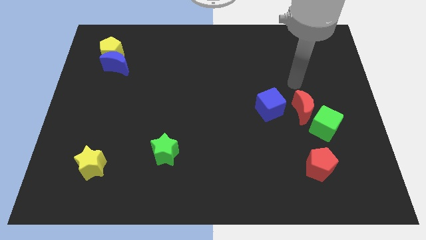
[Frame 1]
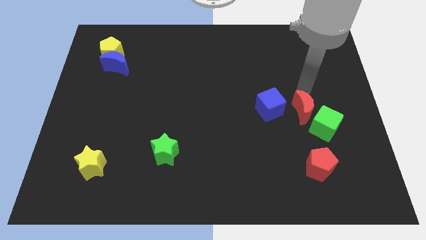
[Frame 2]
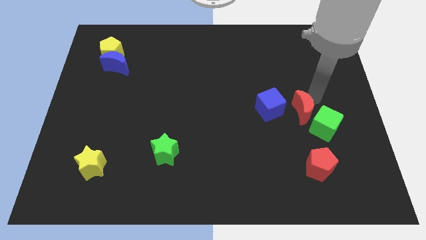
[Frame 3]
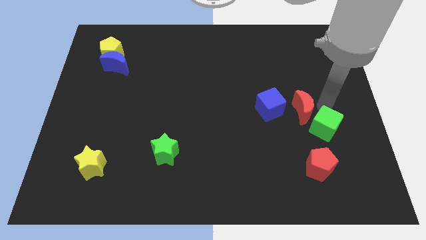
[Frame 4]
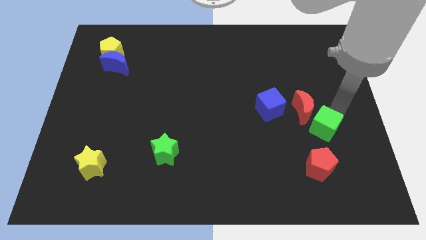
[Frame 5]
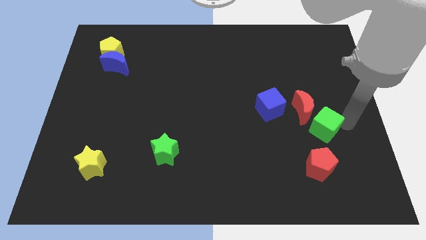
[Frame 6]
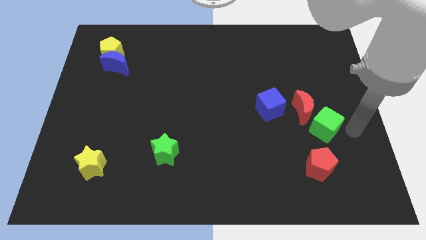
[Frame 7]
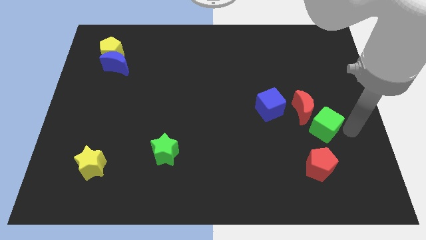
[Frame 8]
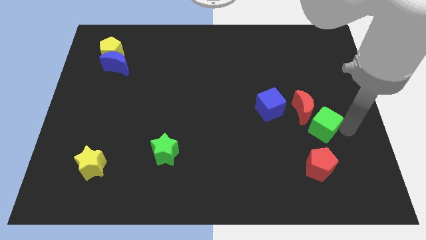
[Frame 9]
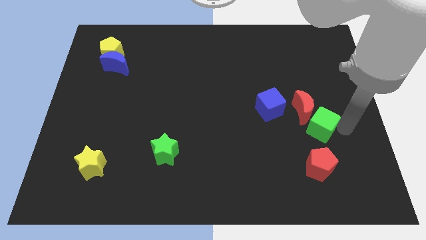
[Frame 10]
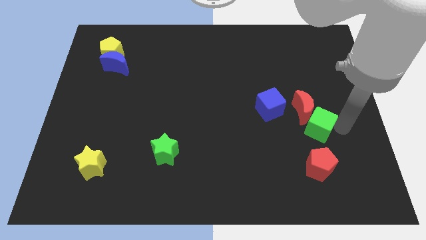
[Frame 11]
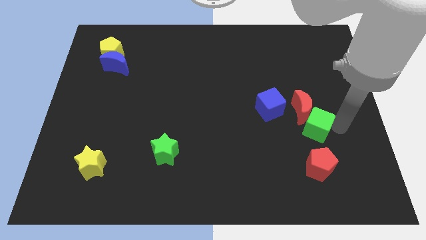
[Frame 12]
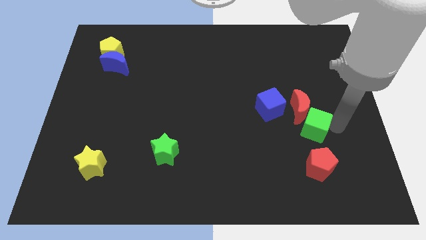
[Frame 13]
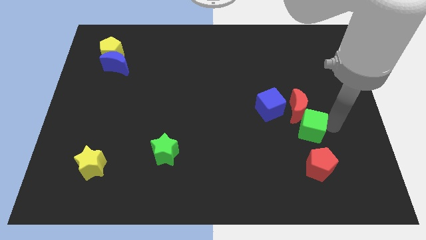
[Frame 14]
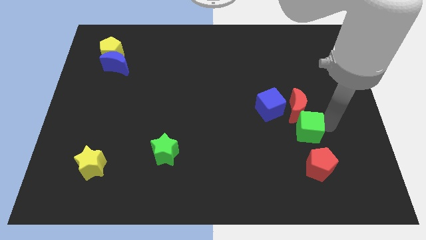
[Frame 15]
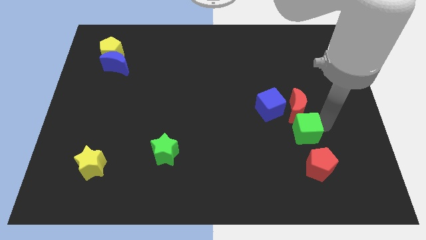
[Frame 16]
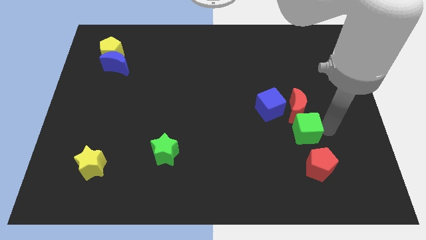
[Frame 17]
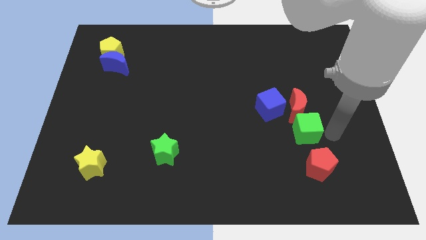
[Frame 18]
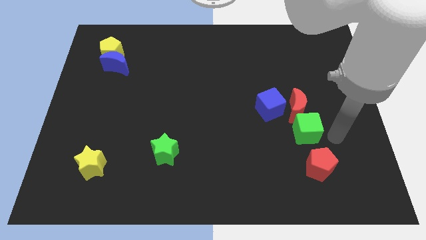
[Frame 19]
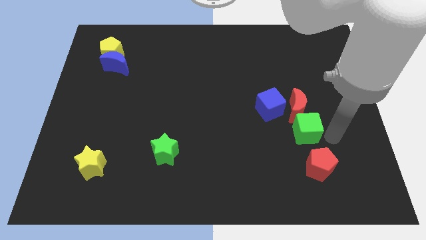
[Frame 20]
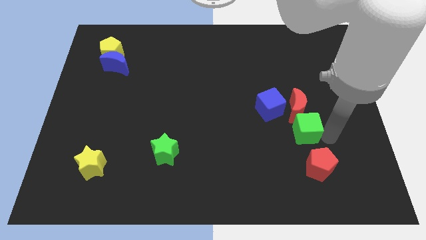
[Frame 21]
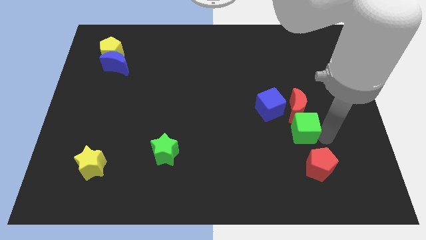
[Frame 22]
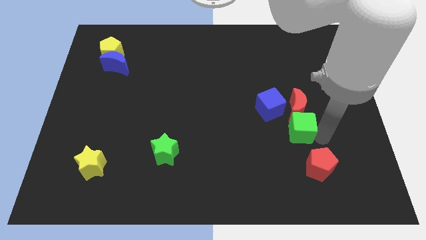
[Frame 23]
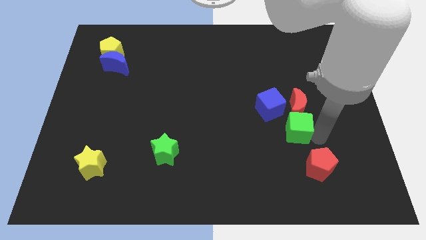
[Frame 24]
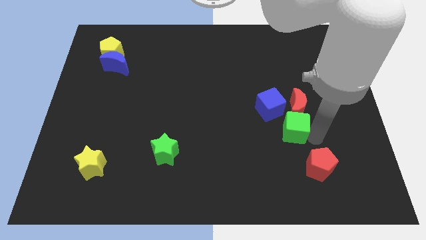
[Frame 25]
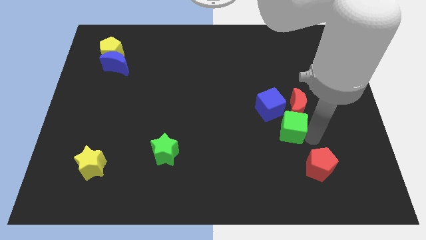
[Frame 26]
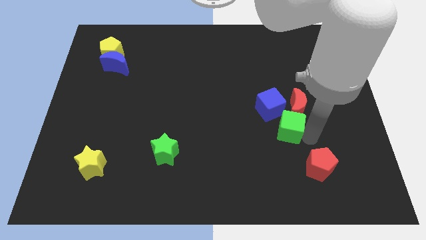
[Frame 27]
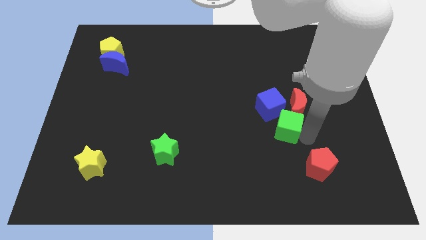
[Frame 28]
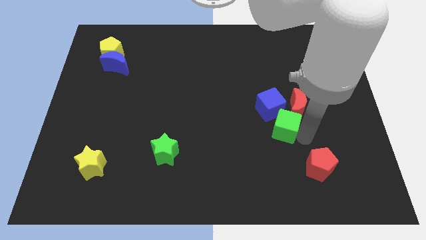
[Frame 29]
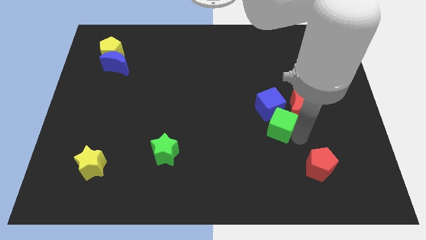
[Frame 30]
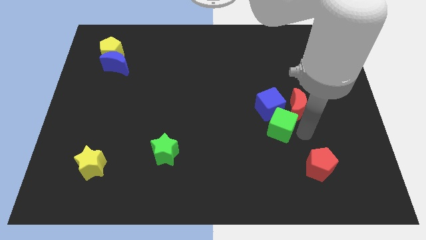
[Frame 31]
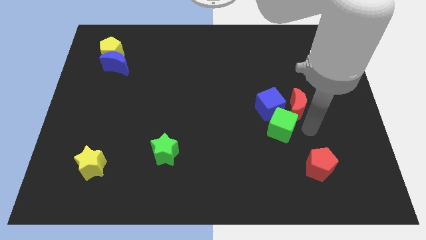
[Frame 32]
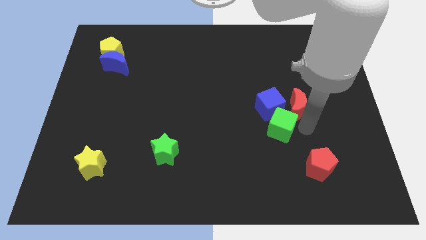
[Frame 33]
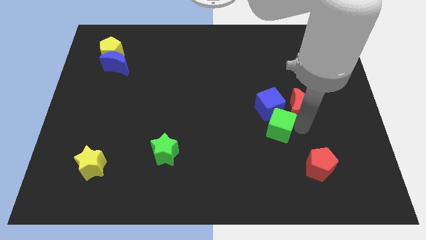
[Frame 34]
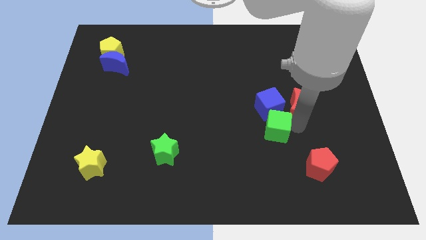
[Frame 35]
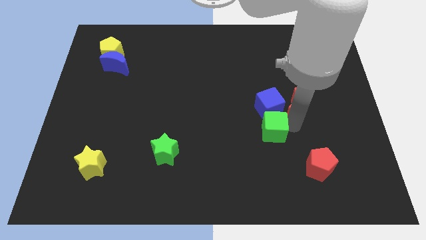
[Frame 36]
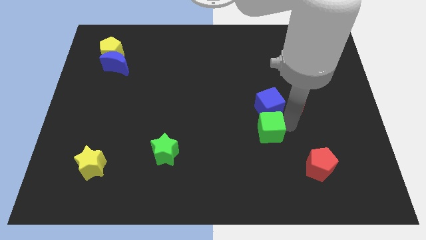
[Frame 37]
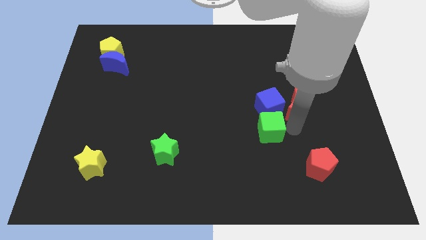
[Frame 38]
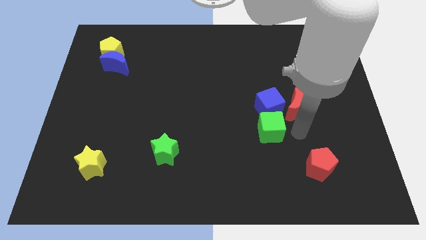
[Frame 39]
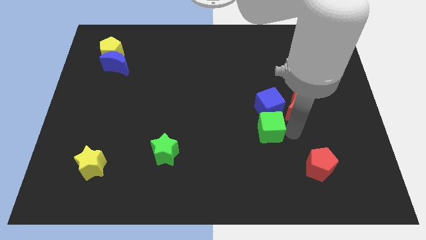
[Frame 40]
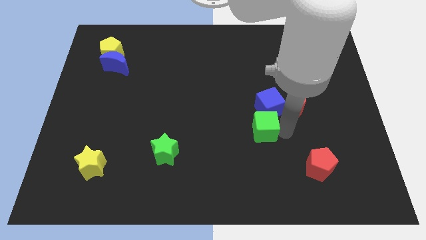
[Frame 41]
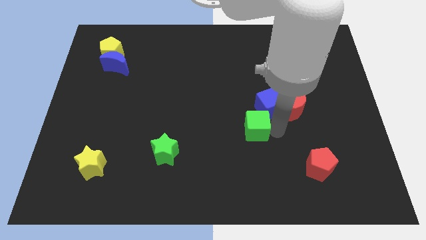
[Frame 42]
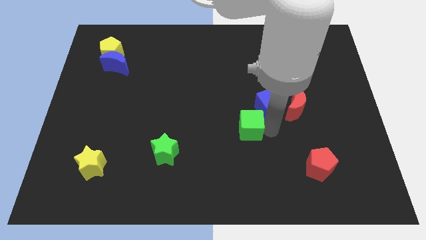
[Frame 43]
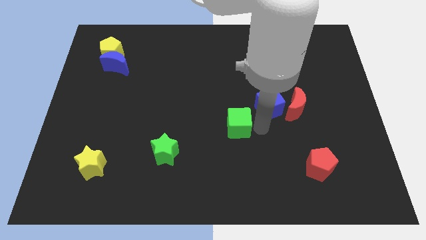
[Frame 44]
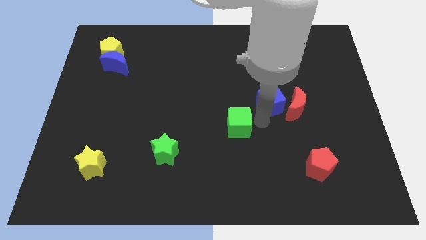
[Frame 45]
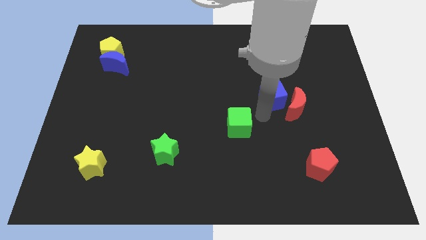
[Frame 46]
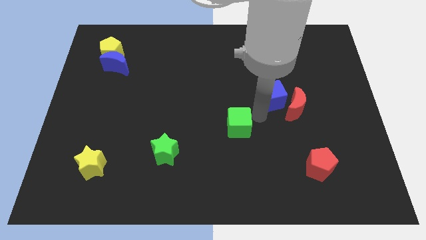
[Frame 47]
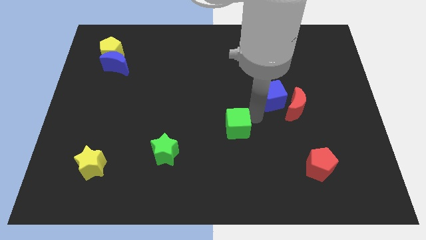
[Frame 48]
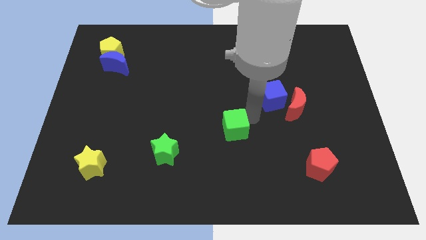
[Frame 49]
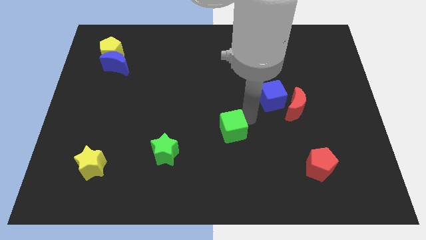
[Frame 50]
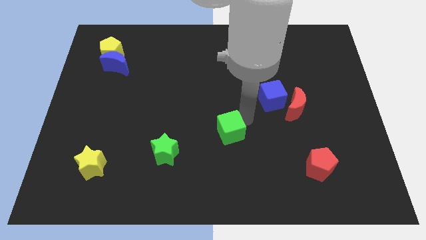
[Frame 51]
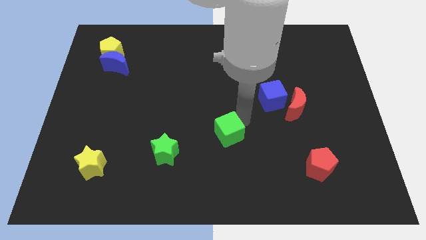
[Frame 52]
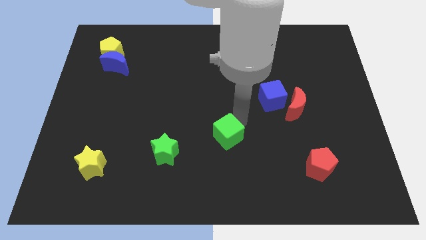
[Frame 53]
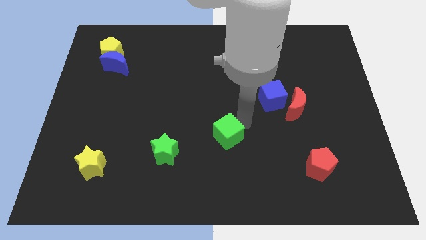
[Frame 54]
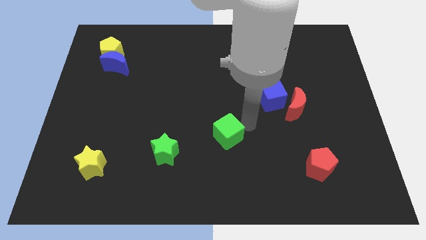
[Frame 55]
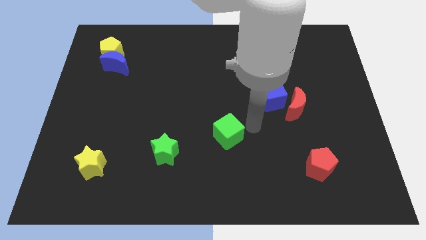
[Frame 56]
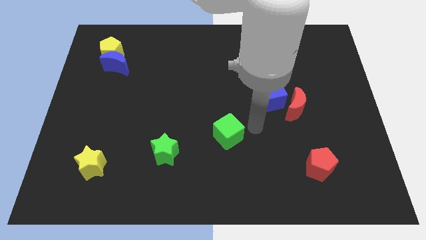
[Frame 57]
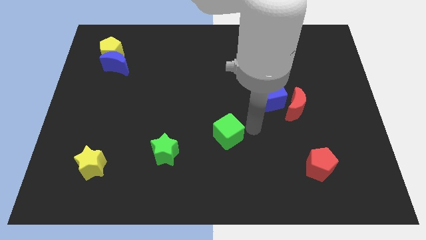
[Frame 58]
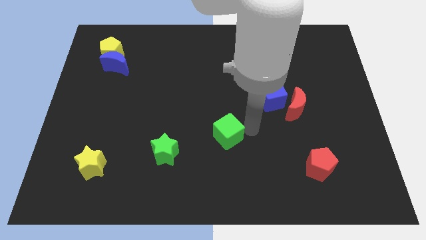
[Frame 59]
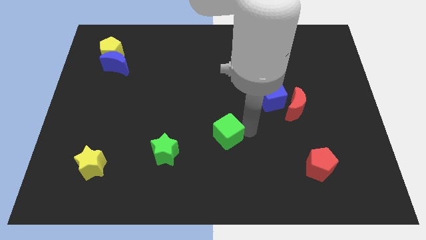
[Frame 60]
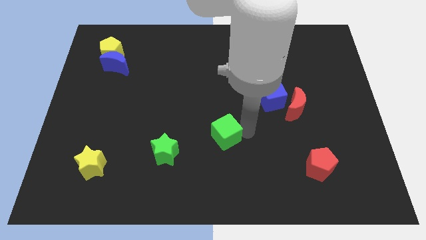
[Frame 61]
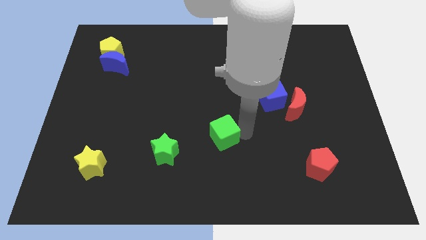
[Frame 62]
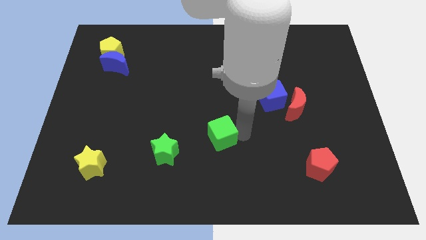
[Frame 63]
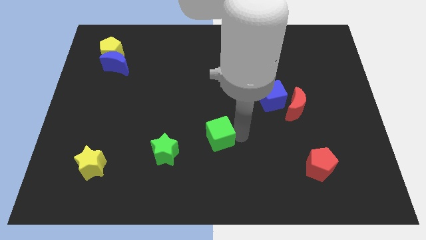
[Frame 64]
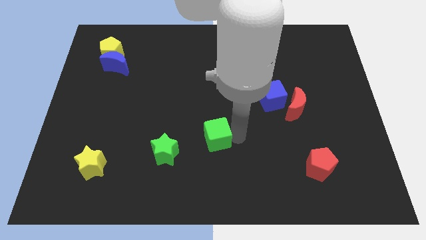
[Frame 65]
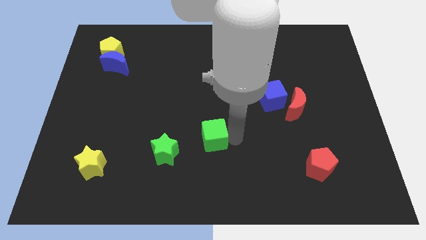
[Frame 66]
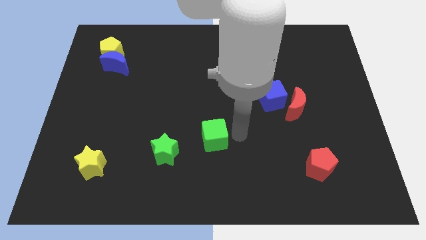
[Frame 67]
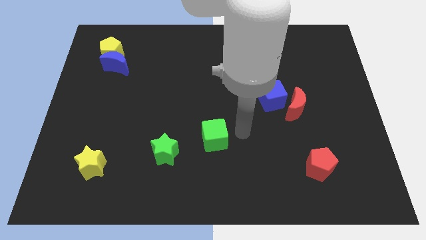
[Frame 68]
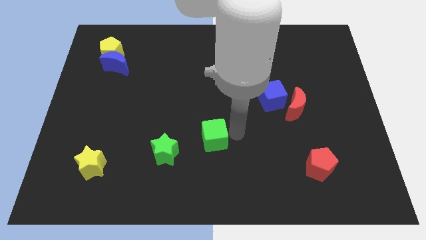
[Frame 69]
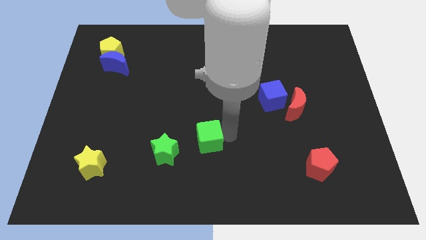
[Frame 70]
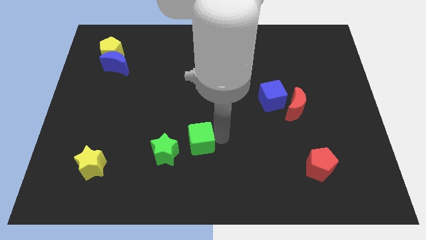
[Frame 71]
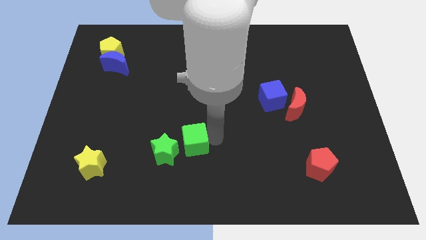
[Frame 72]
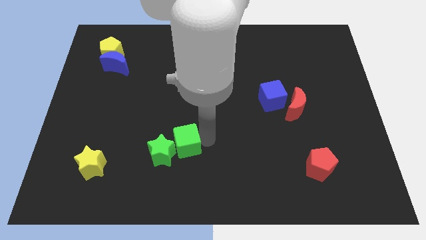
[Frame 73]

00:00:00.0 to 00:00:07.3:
put the green cube towards the green star

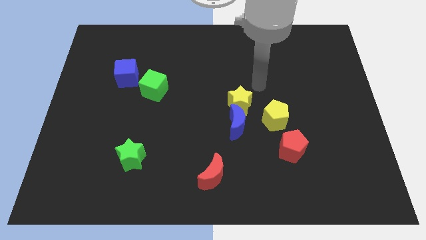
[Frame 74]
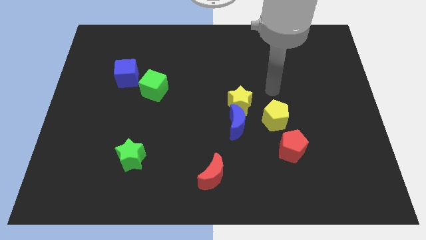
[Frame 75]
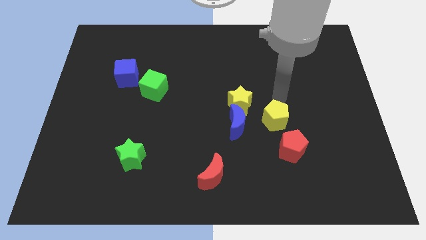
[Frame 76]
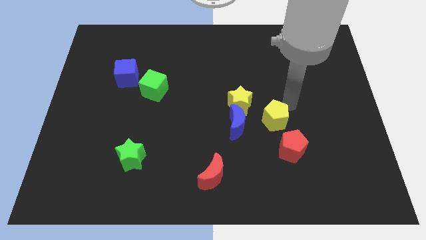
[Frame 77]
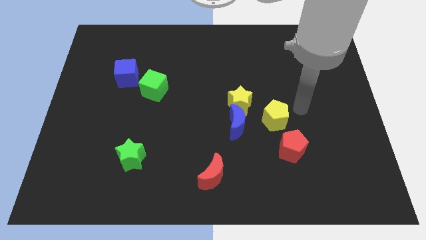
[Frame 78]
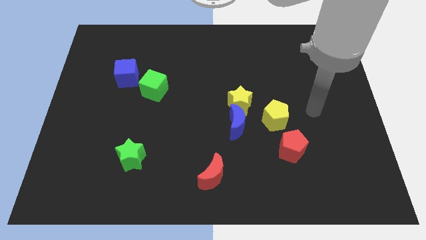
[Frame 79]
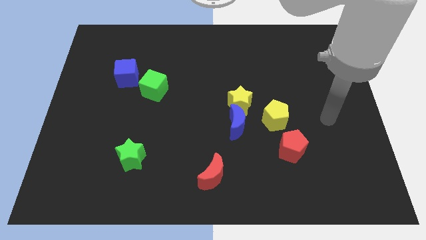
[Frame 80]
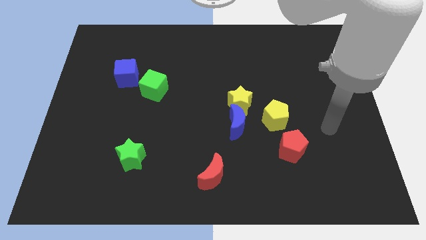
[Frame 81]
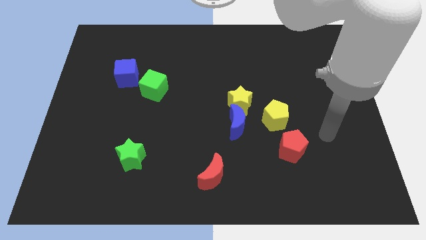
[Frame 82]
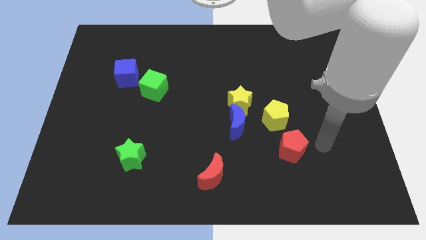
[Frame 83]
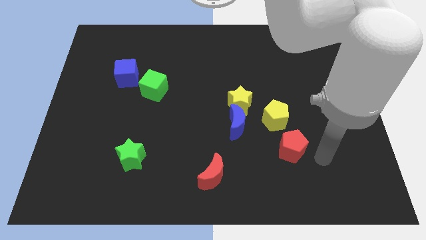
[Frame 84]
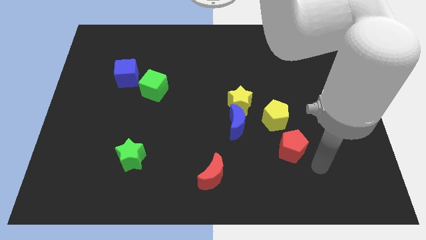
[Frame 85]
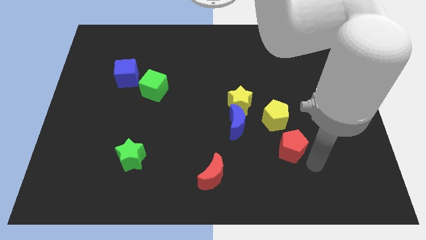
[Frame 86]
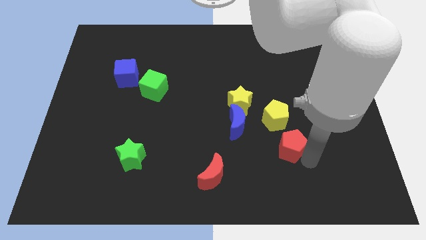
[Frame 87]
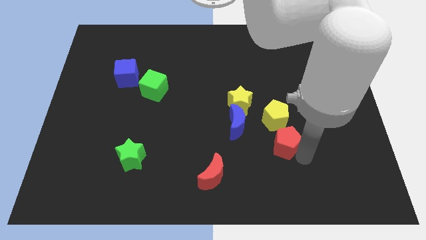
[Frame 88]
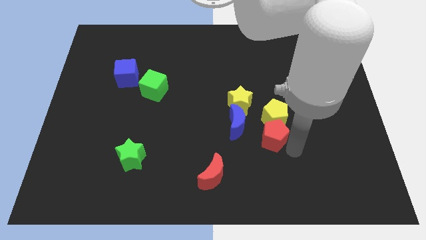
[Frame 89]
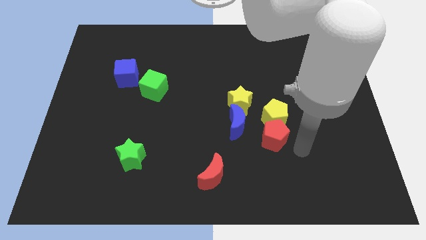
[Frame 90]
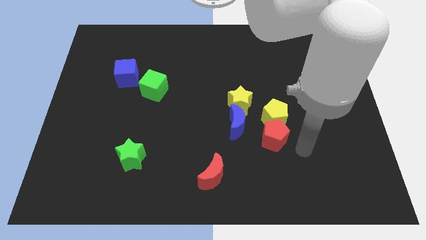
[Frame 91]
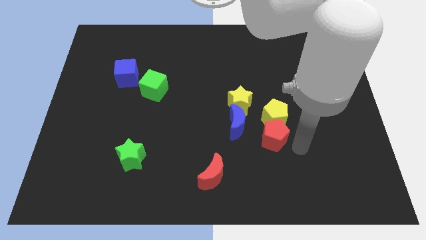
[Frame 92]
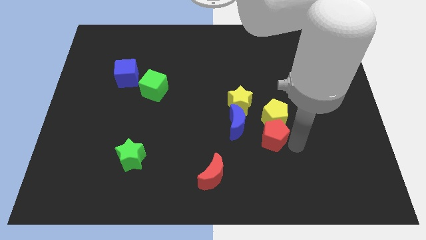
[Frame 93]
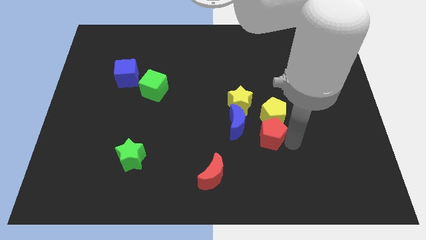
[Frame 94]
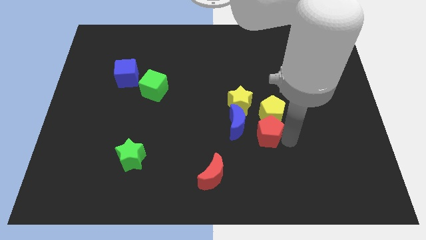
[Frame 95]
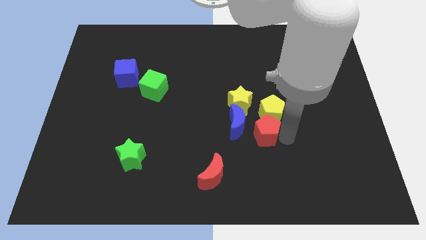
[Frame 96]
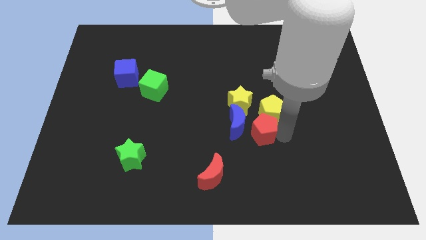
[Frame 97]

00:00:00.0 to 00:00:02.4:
move the red pentagon to the blue moon
